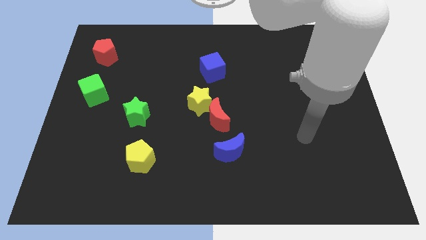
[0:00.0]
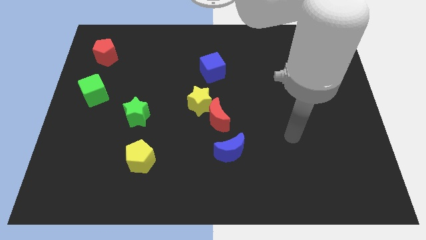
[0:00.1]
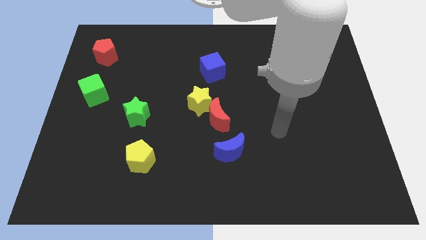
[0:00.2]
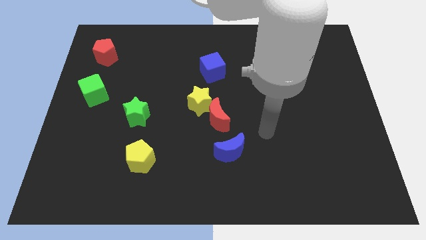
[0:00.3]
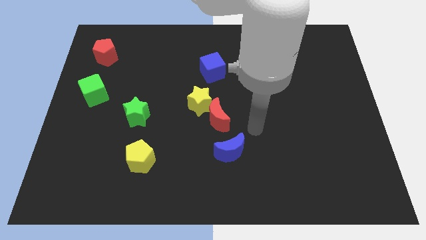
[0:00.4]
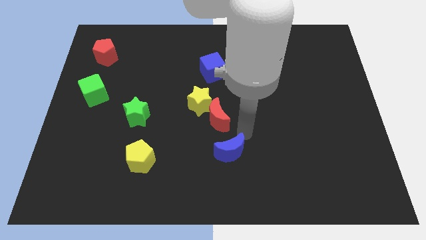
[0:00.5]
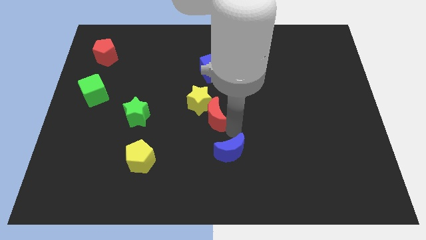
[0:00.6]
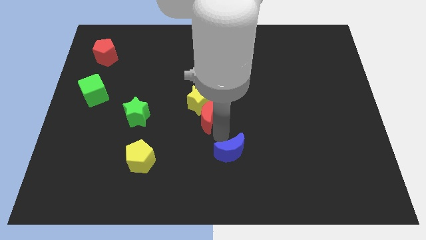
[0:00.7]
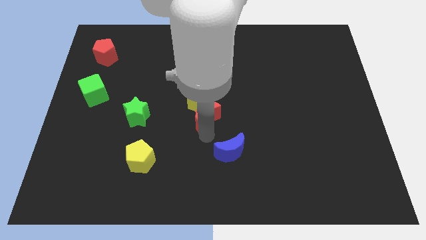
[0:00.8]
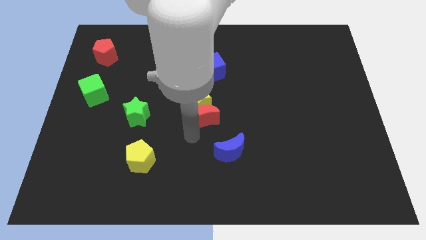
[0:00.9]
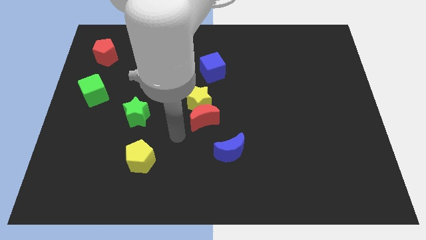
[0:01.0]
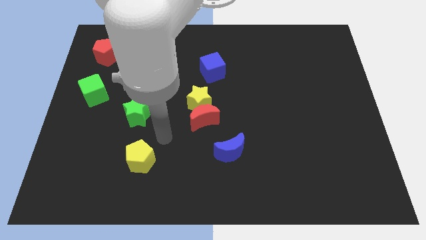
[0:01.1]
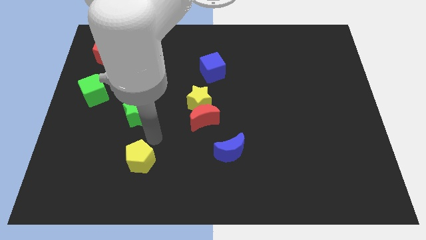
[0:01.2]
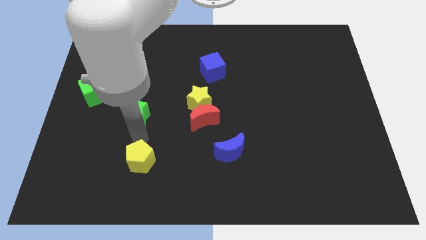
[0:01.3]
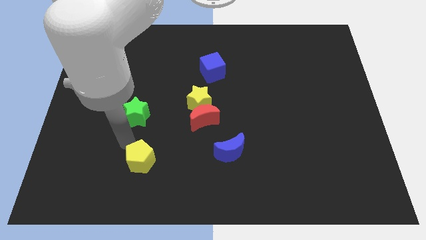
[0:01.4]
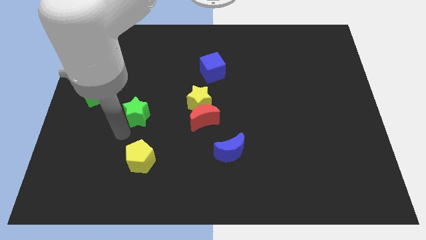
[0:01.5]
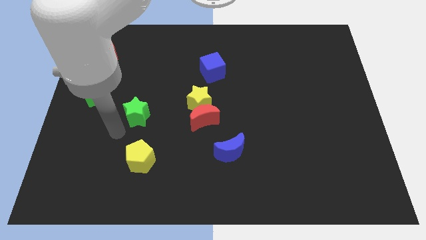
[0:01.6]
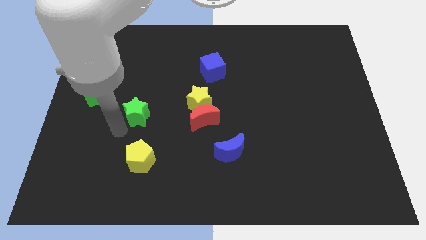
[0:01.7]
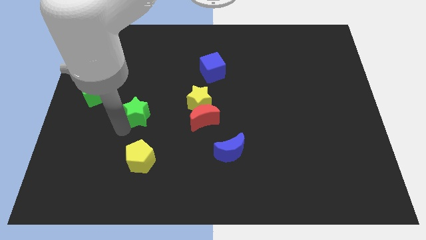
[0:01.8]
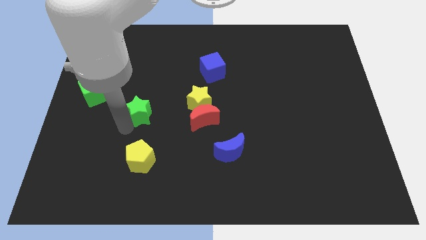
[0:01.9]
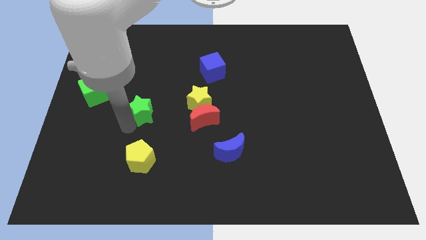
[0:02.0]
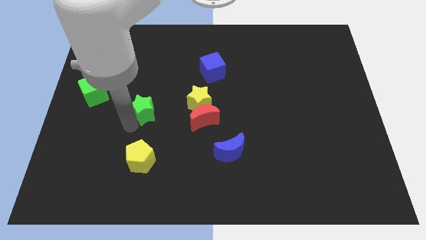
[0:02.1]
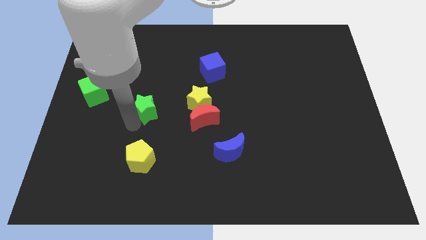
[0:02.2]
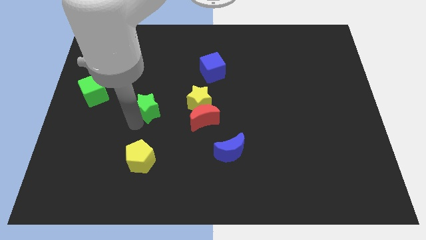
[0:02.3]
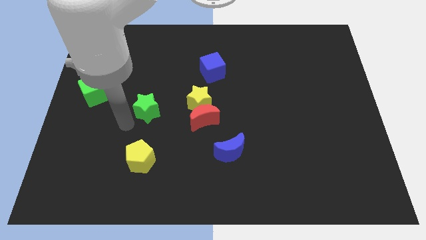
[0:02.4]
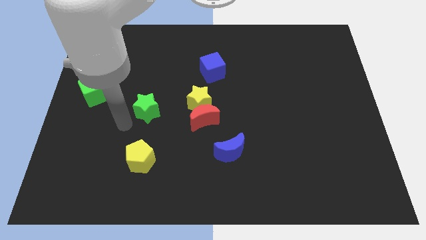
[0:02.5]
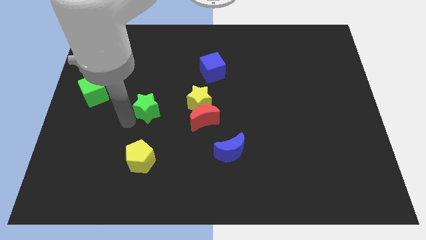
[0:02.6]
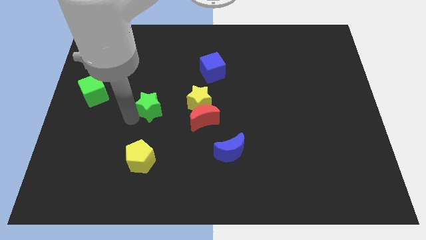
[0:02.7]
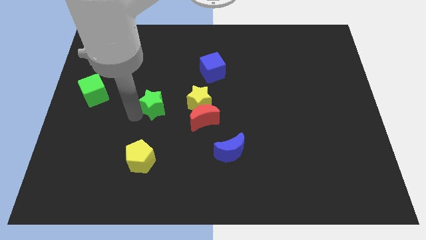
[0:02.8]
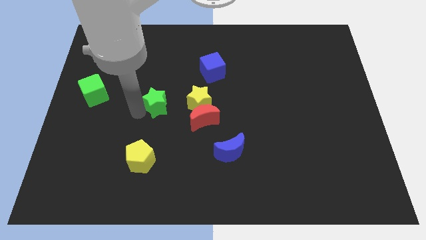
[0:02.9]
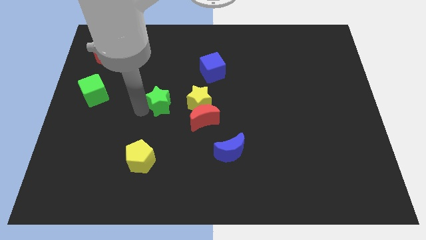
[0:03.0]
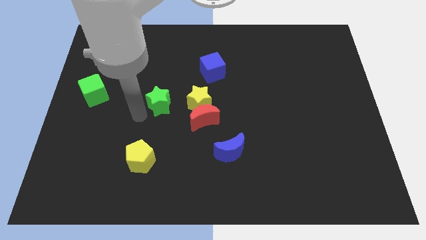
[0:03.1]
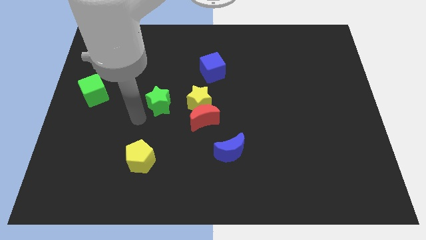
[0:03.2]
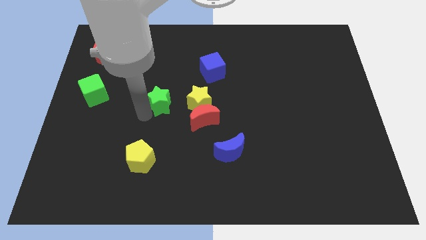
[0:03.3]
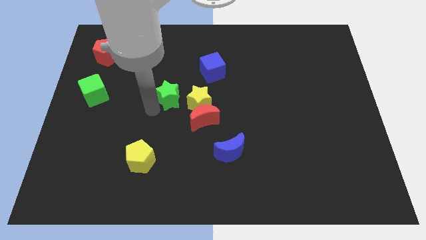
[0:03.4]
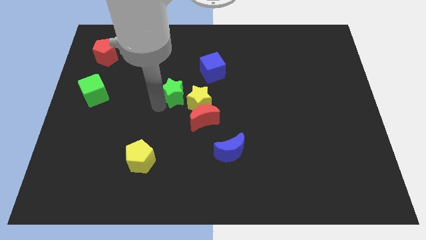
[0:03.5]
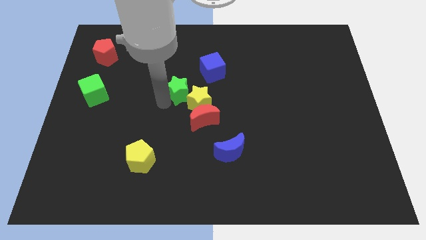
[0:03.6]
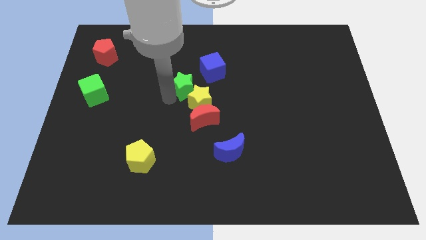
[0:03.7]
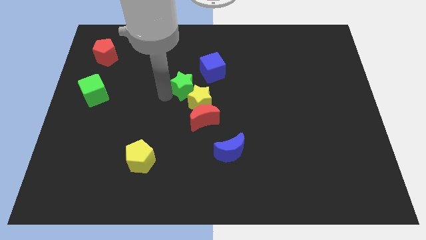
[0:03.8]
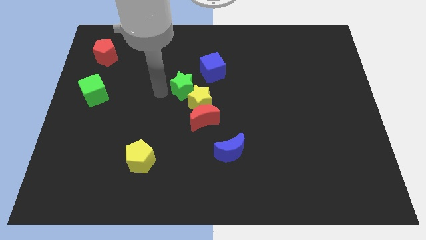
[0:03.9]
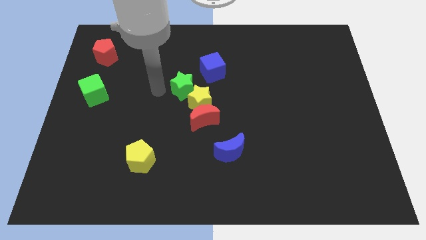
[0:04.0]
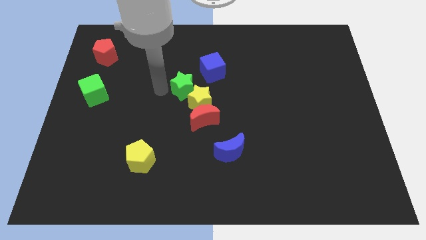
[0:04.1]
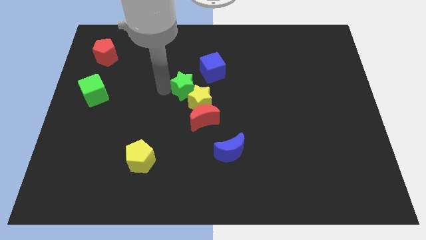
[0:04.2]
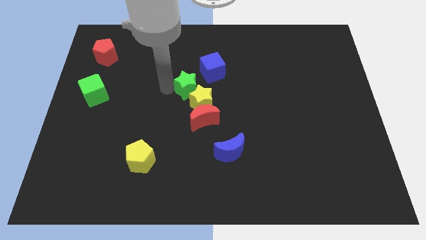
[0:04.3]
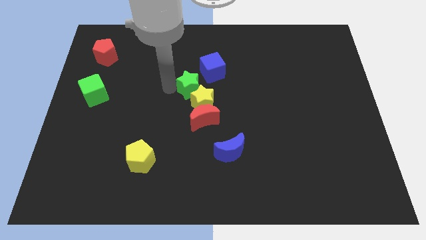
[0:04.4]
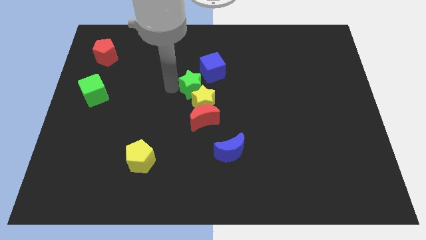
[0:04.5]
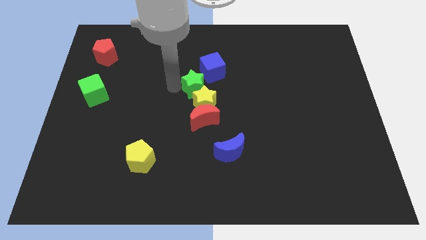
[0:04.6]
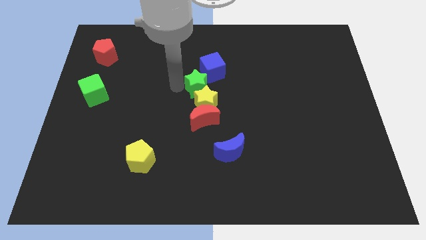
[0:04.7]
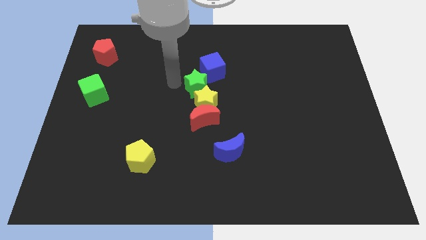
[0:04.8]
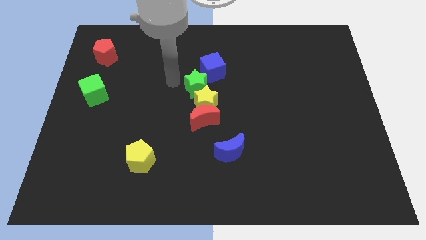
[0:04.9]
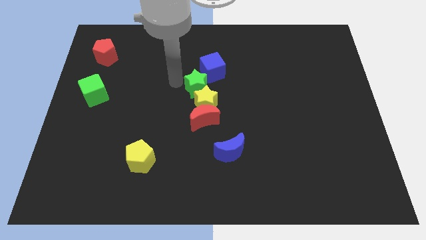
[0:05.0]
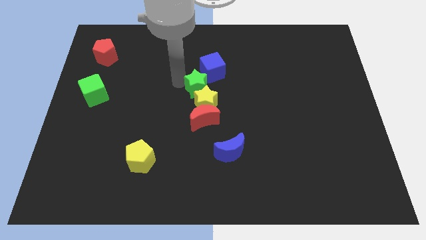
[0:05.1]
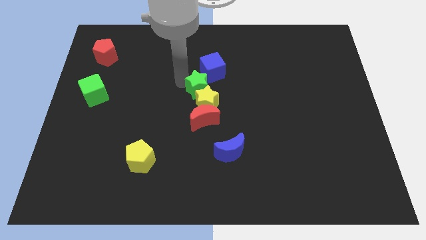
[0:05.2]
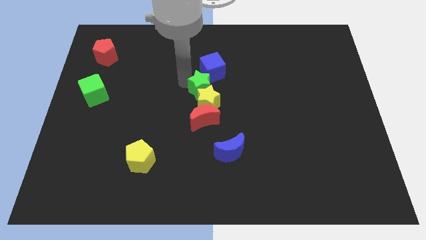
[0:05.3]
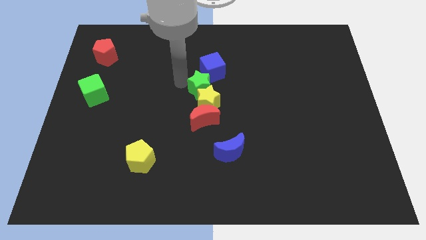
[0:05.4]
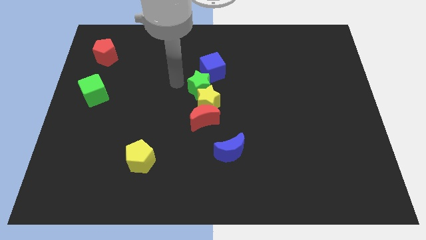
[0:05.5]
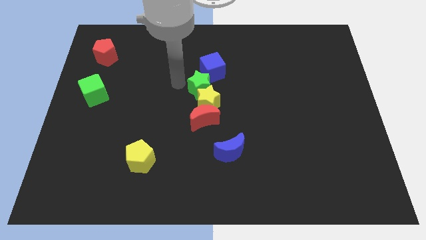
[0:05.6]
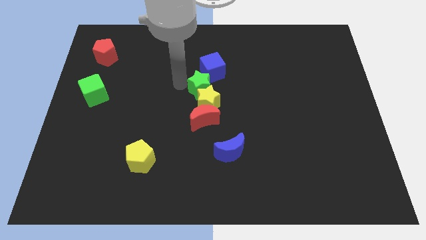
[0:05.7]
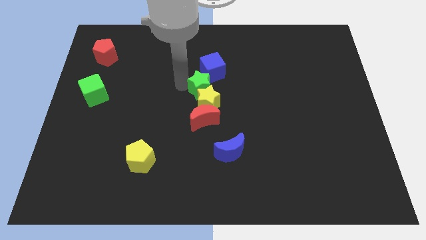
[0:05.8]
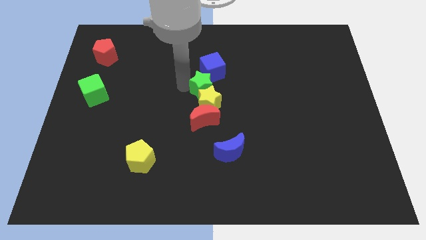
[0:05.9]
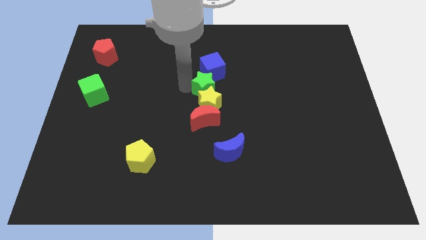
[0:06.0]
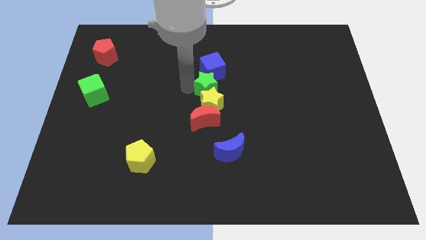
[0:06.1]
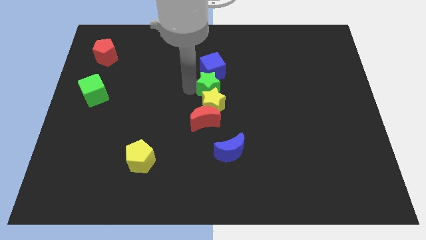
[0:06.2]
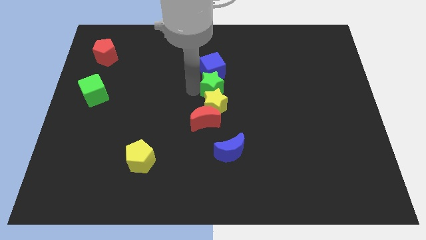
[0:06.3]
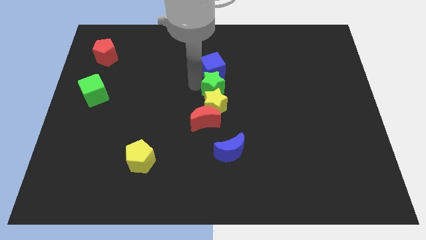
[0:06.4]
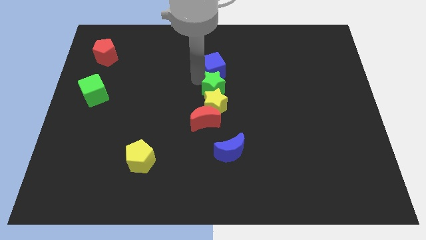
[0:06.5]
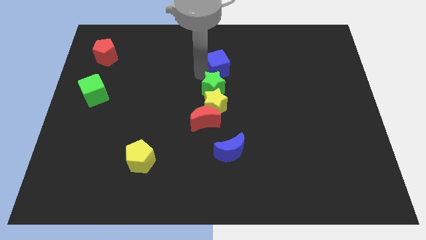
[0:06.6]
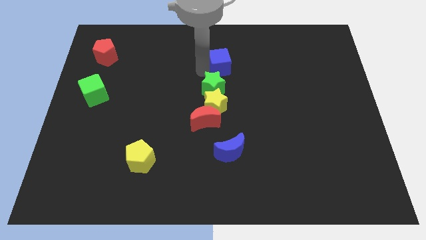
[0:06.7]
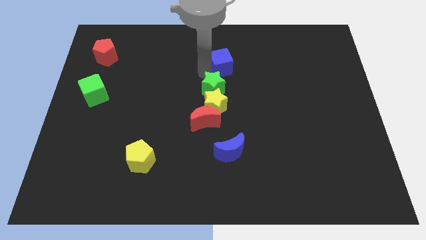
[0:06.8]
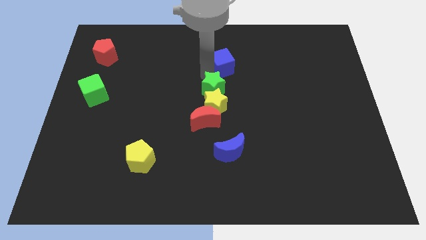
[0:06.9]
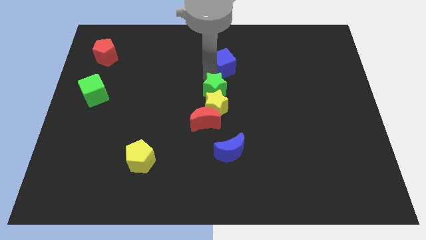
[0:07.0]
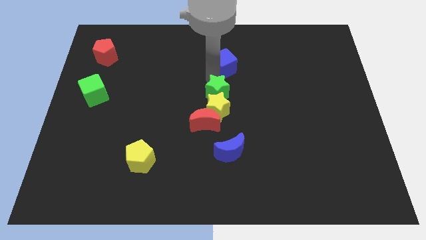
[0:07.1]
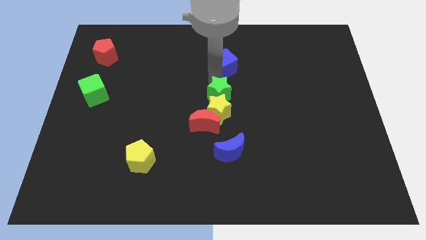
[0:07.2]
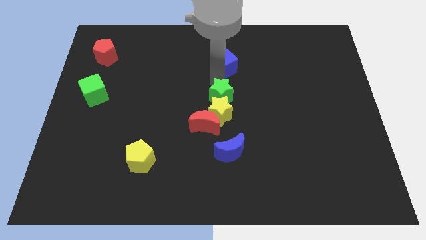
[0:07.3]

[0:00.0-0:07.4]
push the green star to the top side of the blue moon
